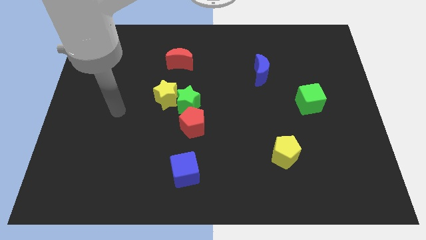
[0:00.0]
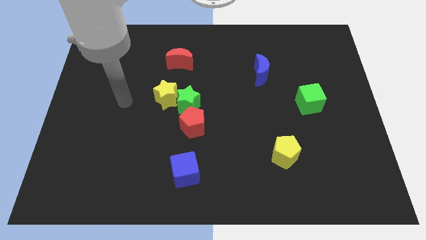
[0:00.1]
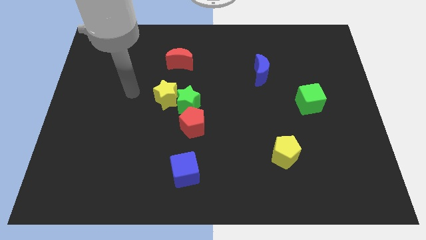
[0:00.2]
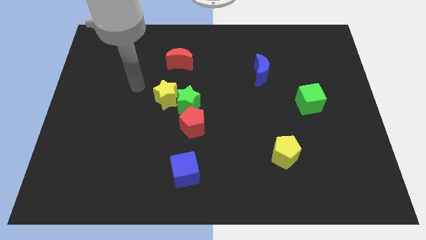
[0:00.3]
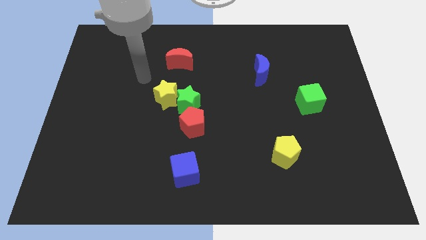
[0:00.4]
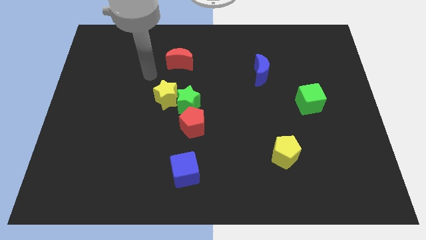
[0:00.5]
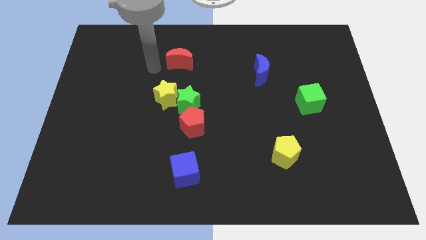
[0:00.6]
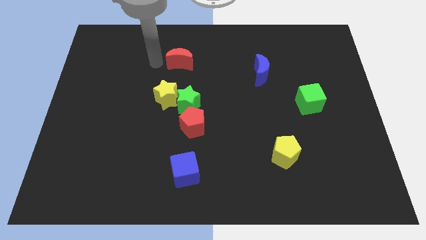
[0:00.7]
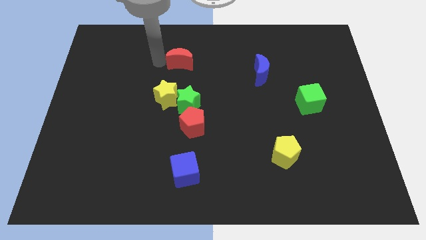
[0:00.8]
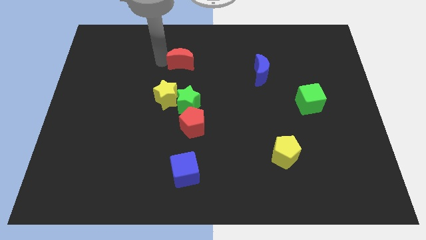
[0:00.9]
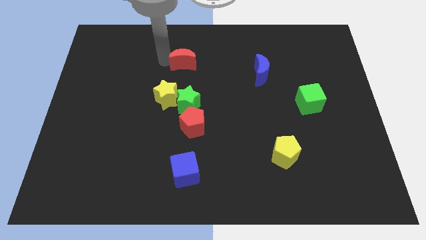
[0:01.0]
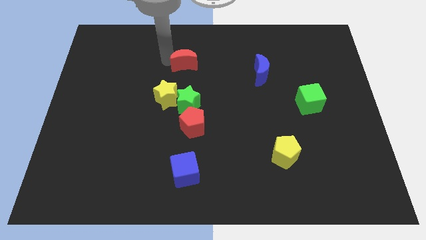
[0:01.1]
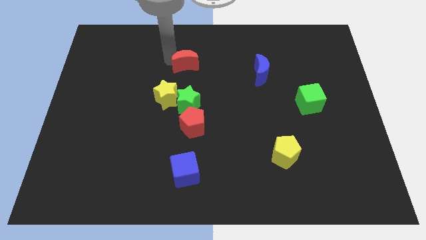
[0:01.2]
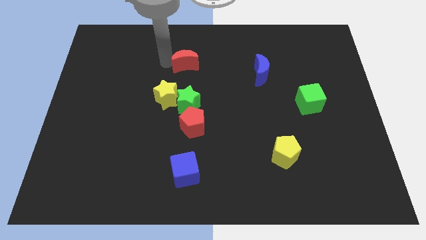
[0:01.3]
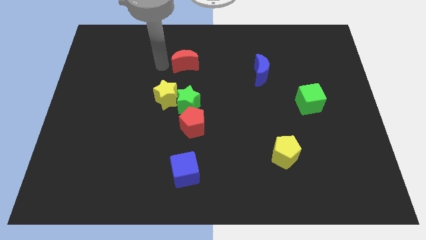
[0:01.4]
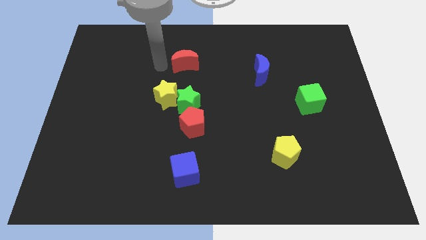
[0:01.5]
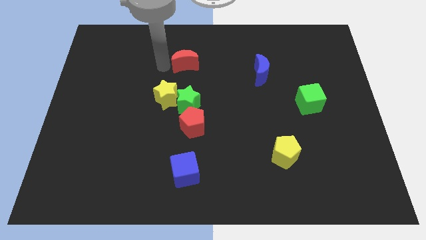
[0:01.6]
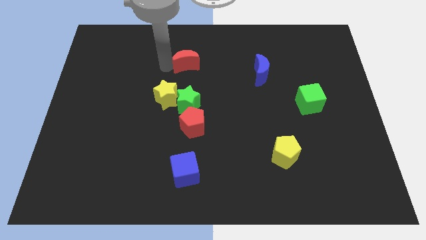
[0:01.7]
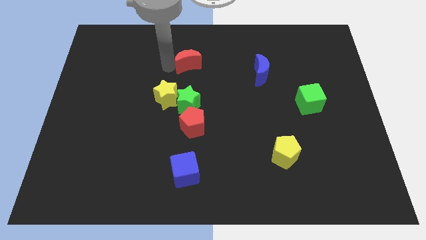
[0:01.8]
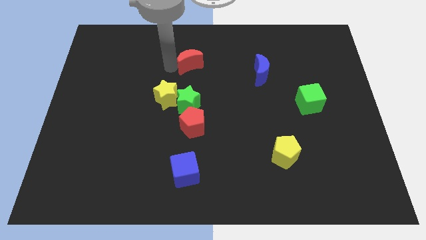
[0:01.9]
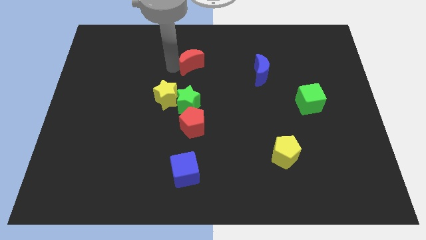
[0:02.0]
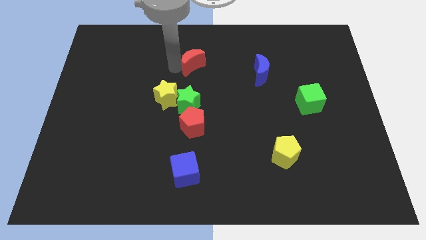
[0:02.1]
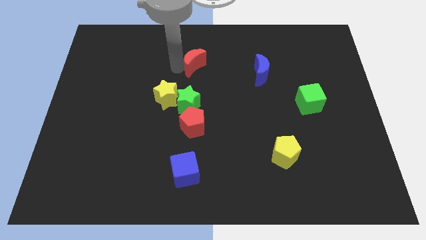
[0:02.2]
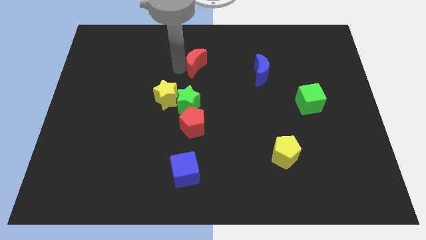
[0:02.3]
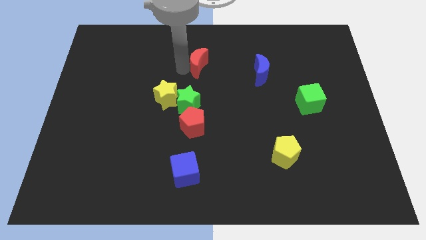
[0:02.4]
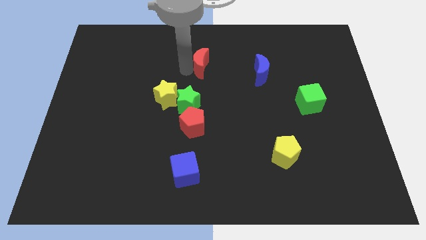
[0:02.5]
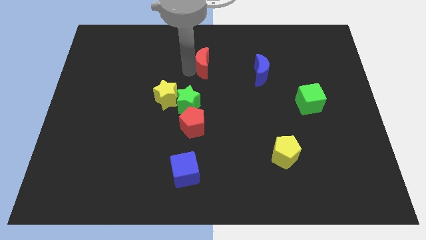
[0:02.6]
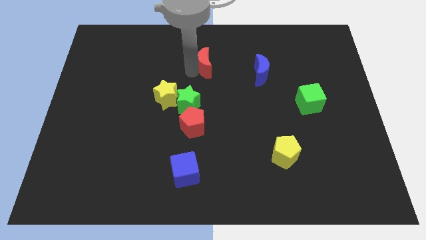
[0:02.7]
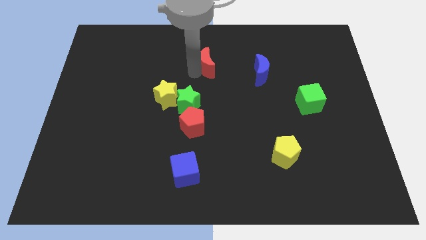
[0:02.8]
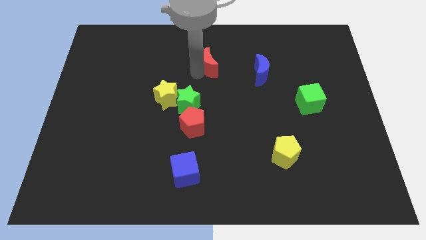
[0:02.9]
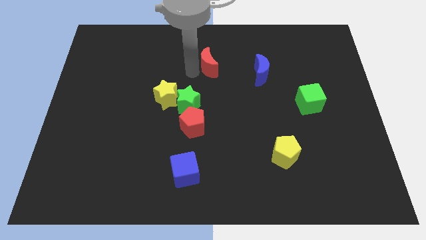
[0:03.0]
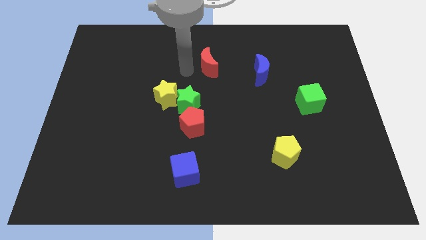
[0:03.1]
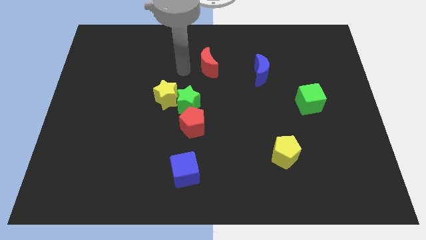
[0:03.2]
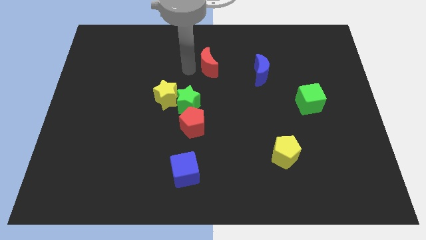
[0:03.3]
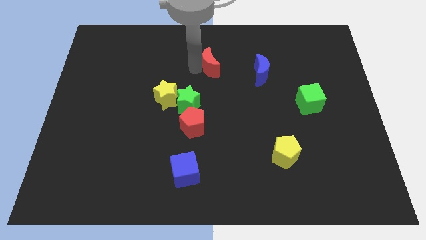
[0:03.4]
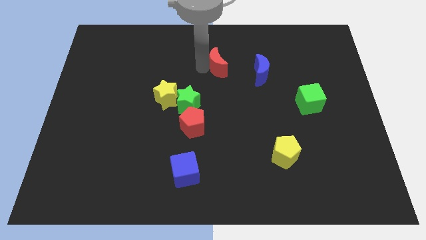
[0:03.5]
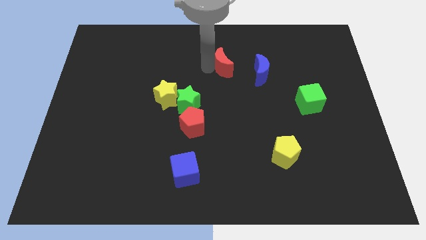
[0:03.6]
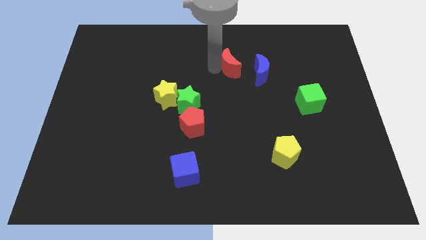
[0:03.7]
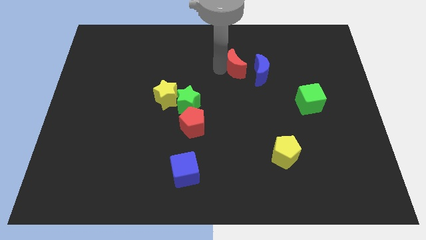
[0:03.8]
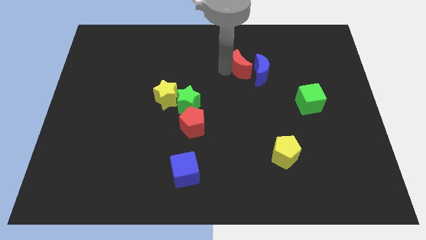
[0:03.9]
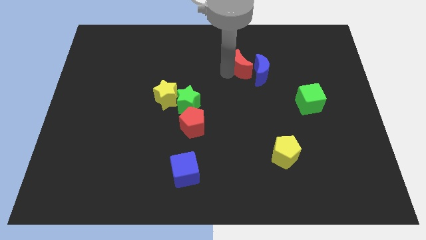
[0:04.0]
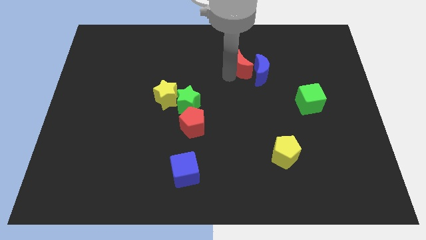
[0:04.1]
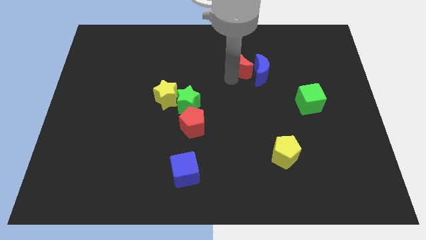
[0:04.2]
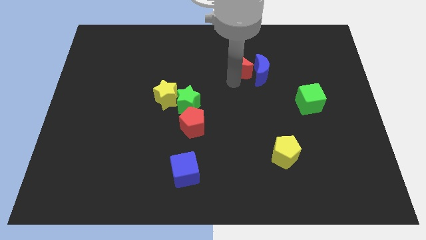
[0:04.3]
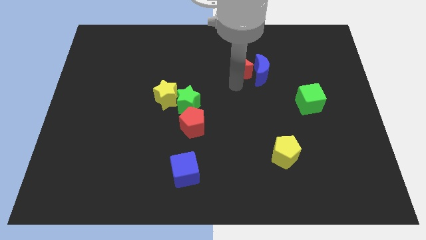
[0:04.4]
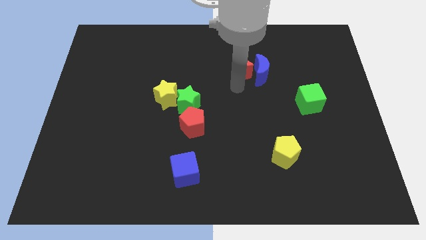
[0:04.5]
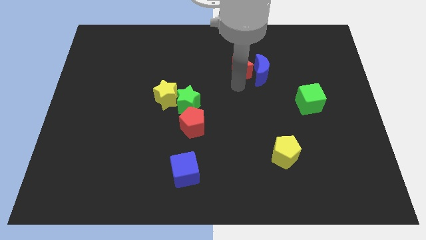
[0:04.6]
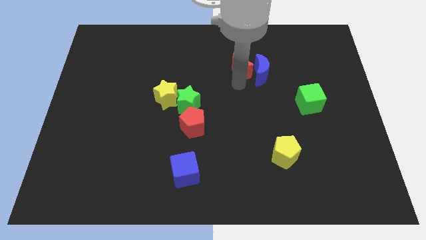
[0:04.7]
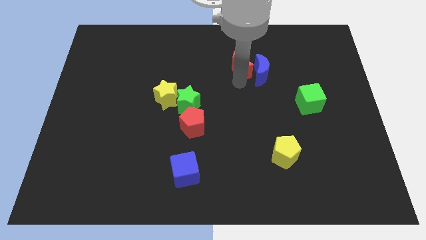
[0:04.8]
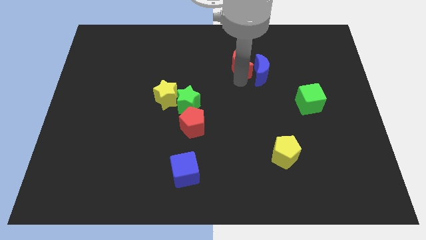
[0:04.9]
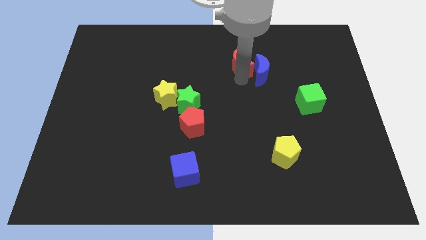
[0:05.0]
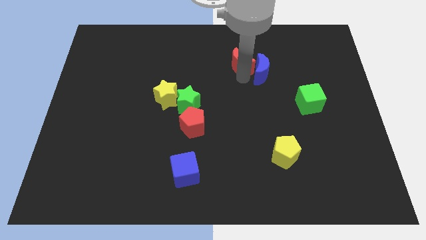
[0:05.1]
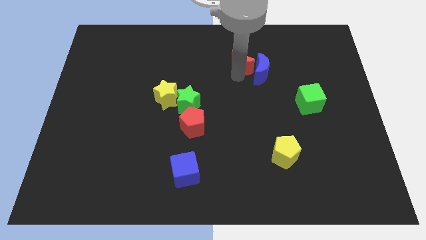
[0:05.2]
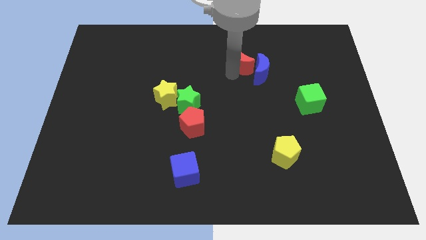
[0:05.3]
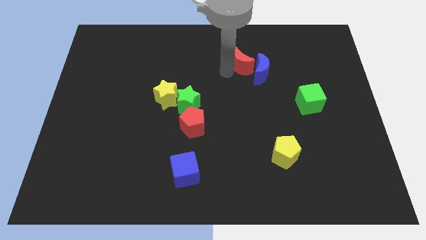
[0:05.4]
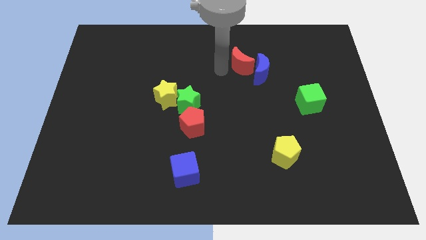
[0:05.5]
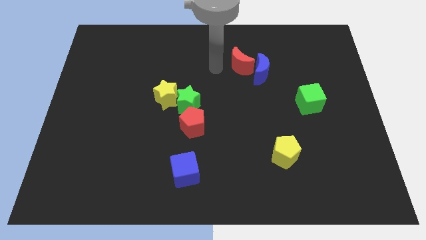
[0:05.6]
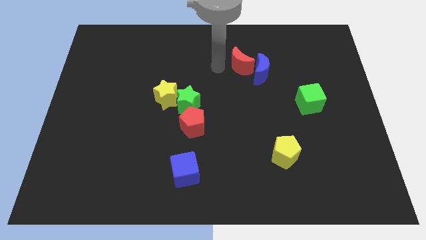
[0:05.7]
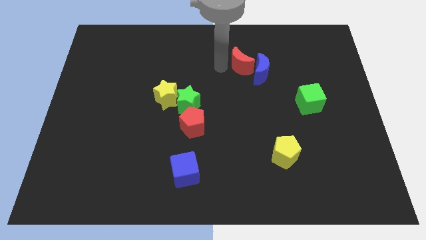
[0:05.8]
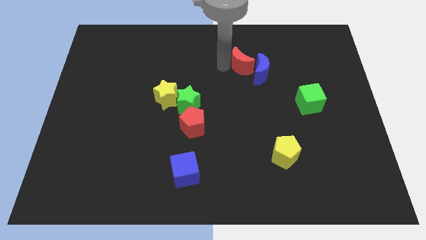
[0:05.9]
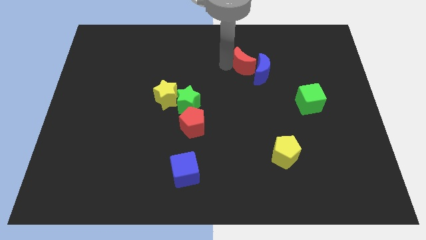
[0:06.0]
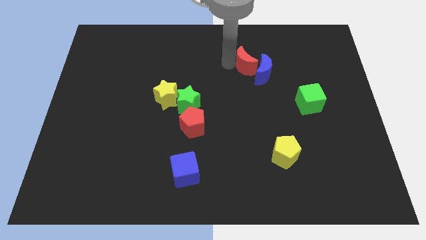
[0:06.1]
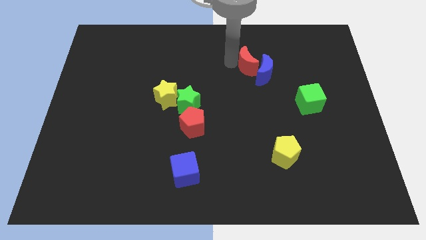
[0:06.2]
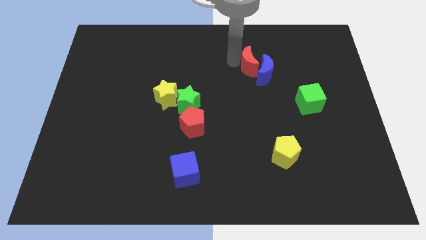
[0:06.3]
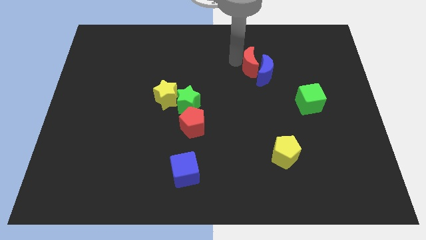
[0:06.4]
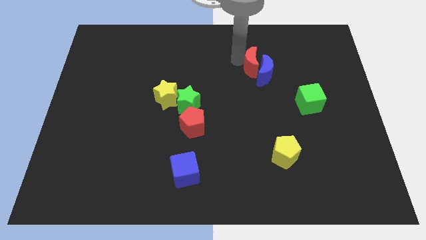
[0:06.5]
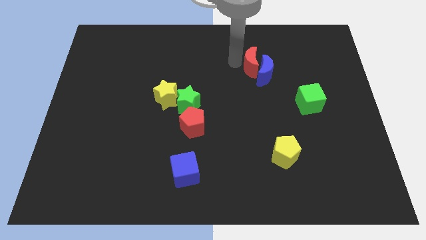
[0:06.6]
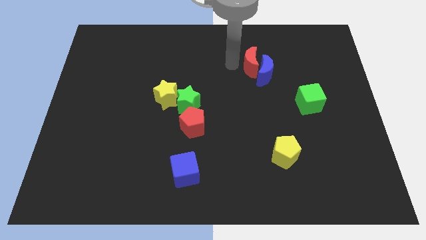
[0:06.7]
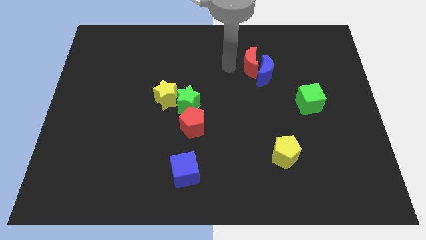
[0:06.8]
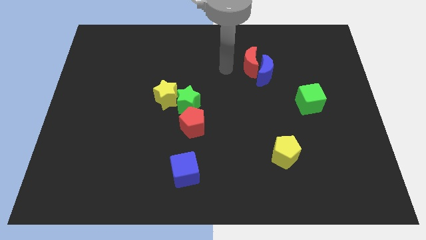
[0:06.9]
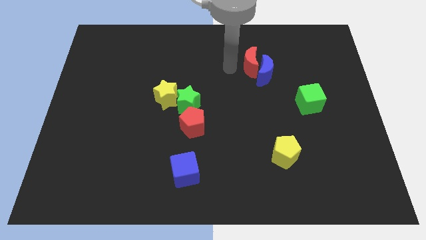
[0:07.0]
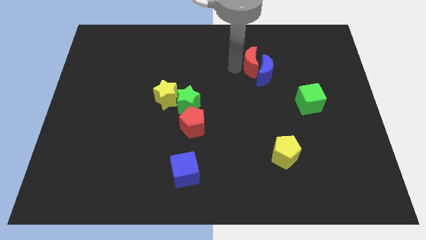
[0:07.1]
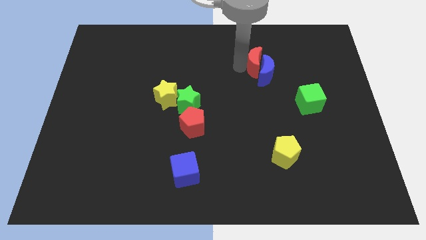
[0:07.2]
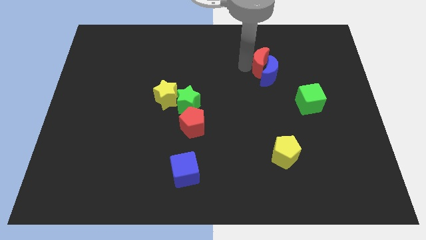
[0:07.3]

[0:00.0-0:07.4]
move the red moon right
